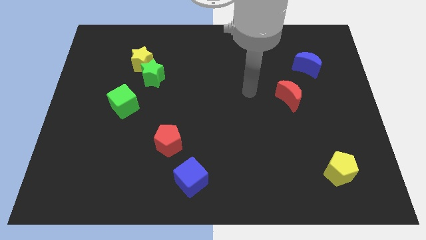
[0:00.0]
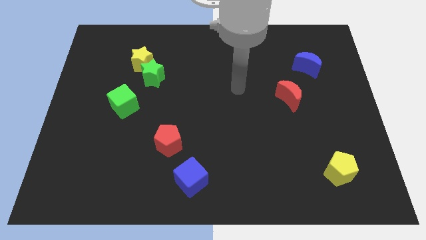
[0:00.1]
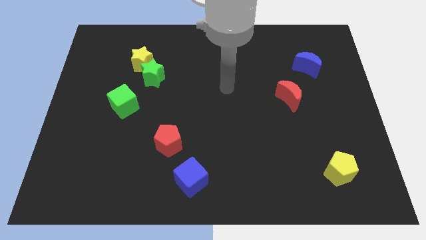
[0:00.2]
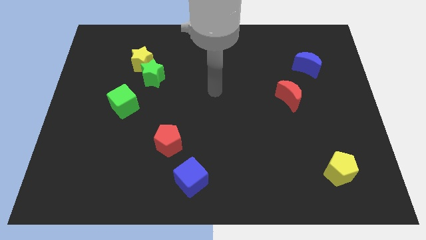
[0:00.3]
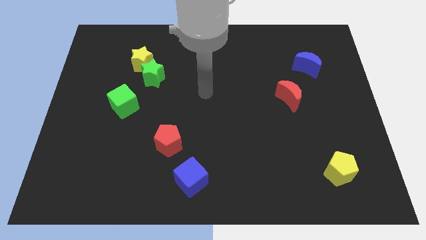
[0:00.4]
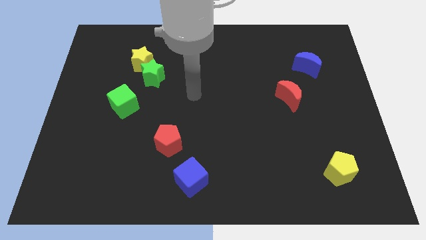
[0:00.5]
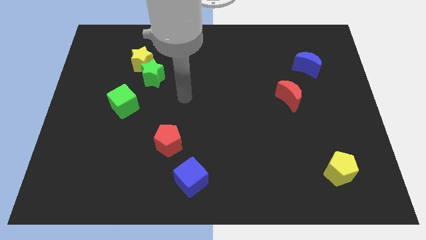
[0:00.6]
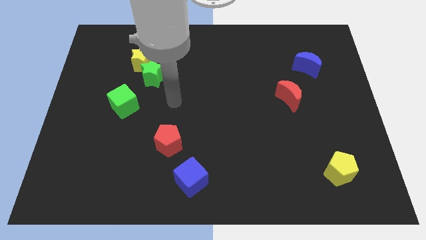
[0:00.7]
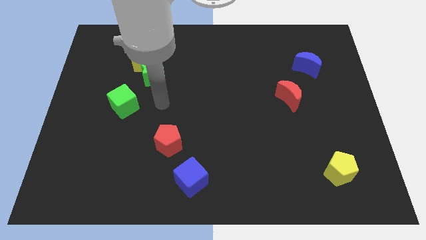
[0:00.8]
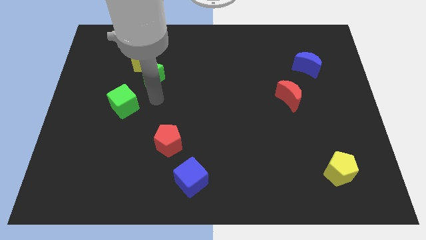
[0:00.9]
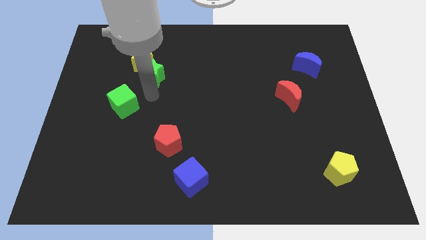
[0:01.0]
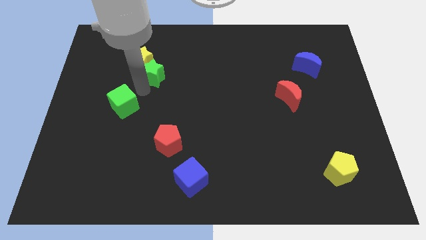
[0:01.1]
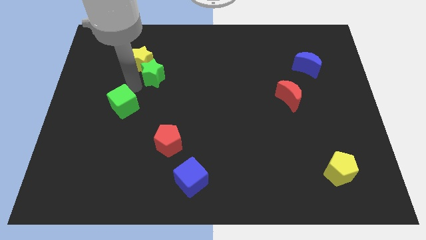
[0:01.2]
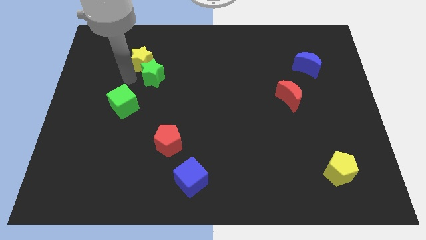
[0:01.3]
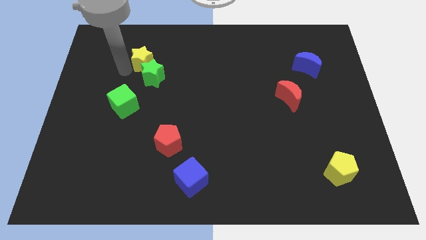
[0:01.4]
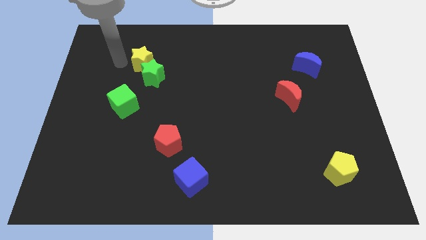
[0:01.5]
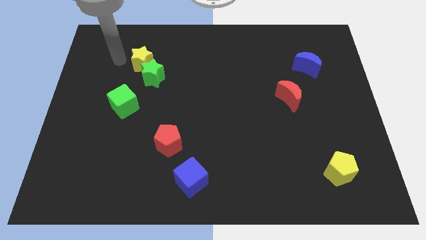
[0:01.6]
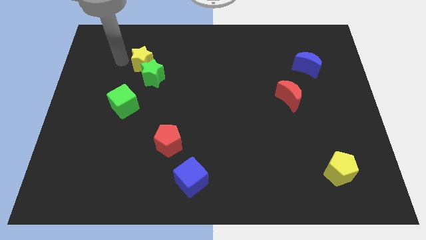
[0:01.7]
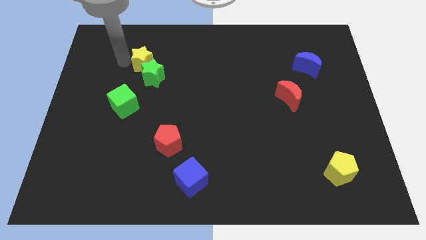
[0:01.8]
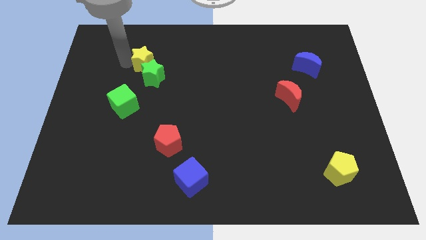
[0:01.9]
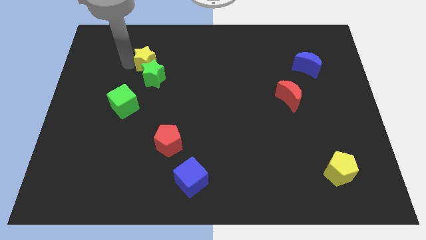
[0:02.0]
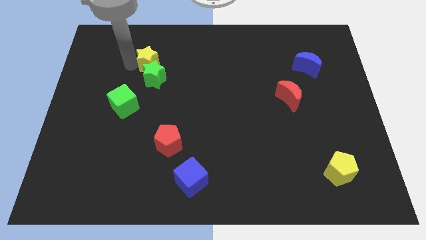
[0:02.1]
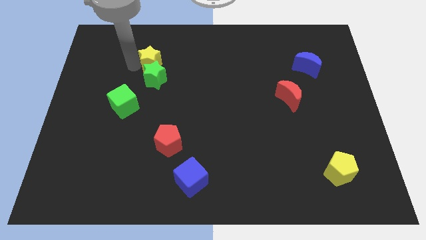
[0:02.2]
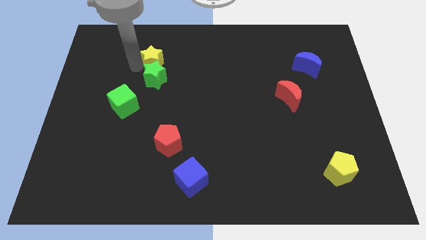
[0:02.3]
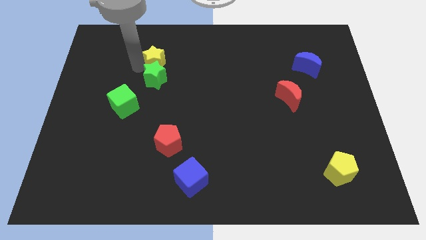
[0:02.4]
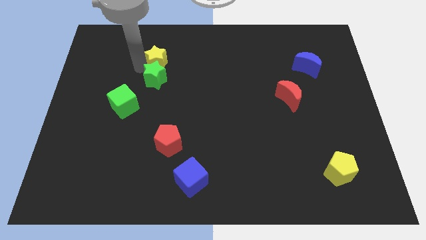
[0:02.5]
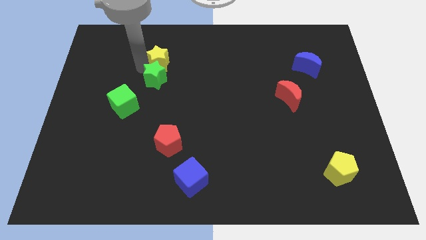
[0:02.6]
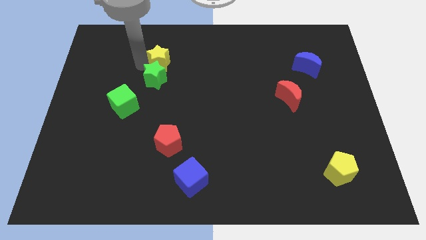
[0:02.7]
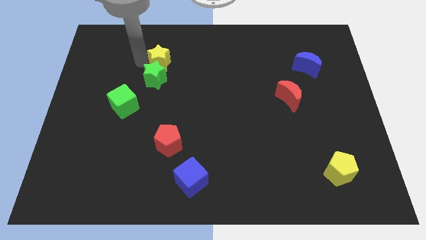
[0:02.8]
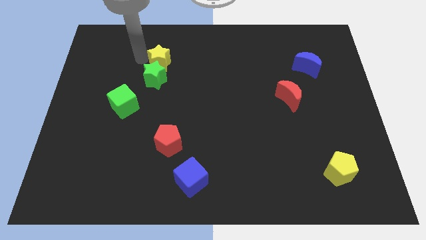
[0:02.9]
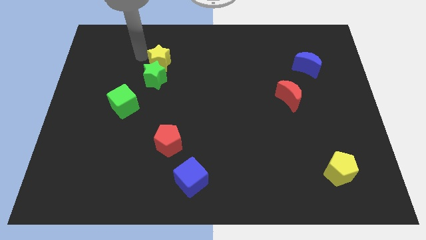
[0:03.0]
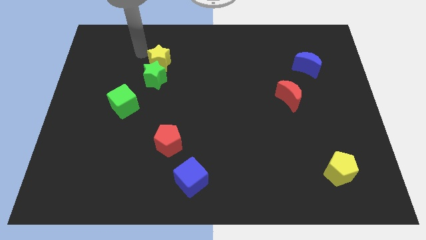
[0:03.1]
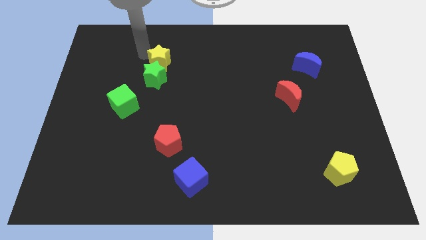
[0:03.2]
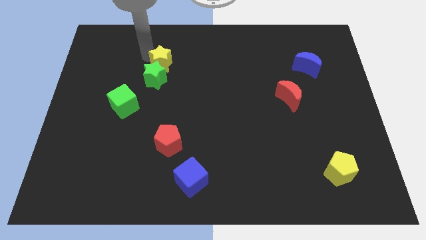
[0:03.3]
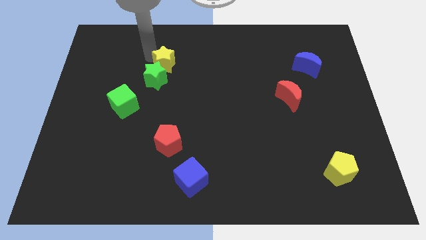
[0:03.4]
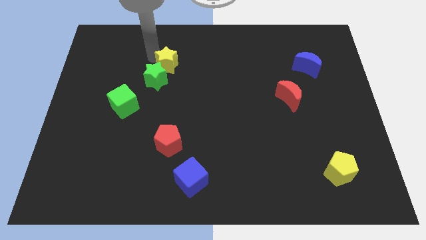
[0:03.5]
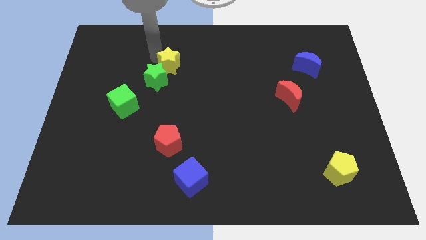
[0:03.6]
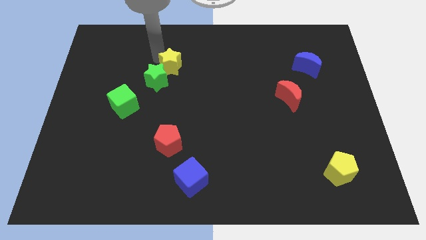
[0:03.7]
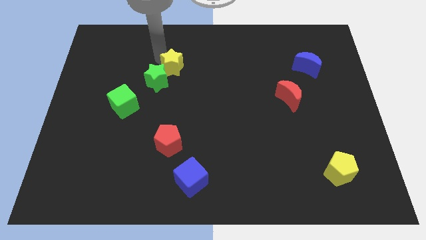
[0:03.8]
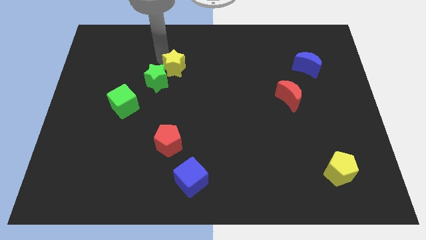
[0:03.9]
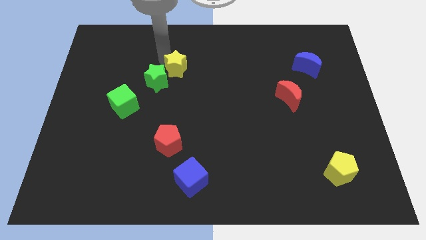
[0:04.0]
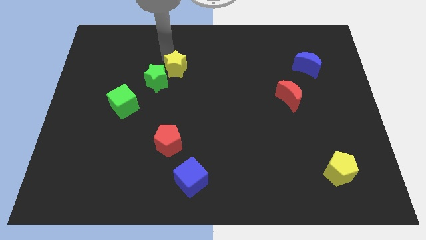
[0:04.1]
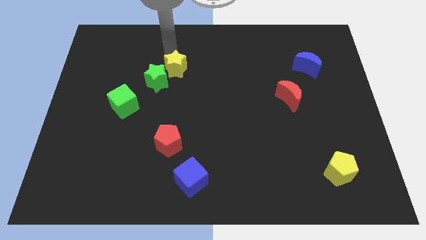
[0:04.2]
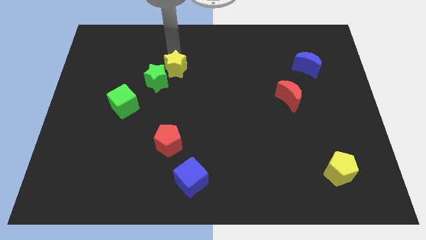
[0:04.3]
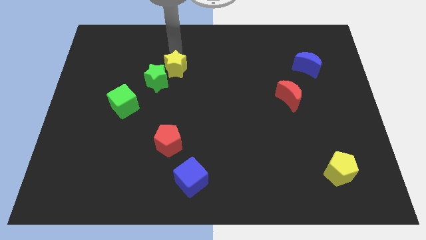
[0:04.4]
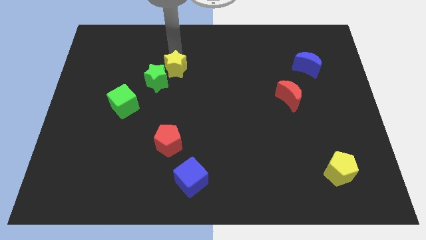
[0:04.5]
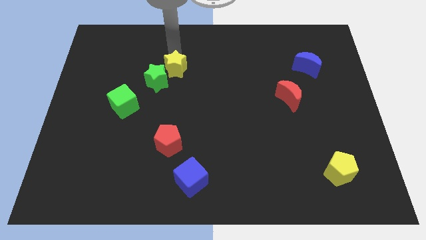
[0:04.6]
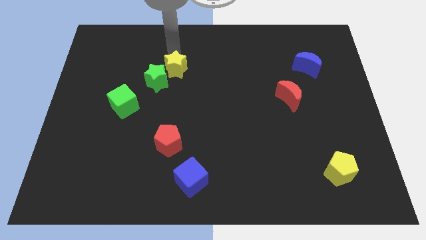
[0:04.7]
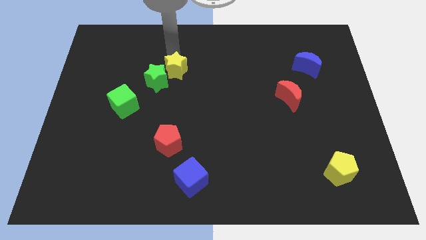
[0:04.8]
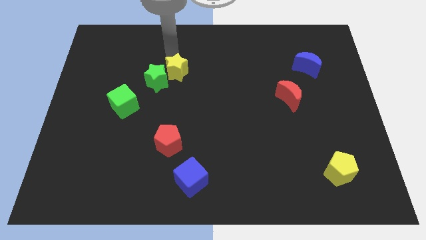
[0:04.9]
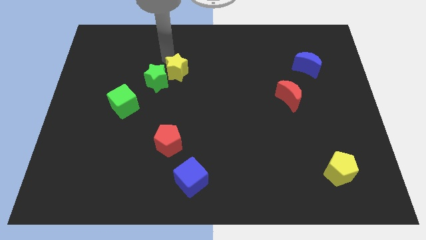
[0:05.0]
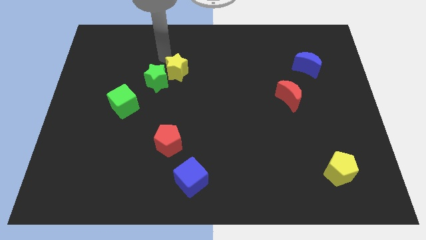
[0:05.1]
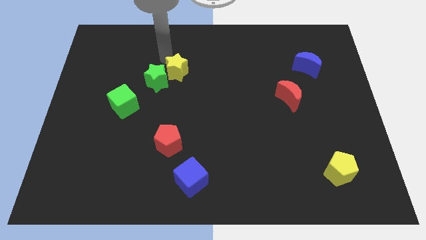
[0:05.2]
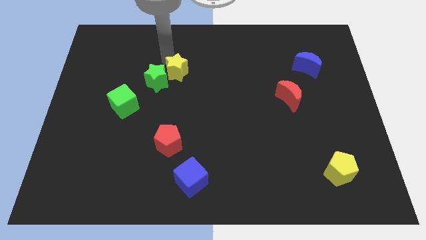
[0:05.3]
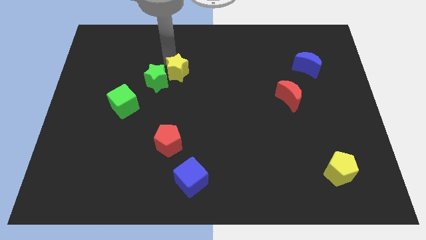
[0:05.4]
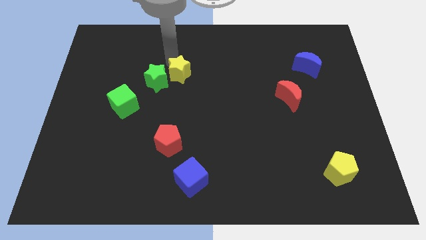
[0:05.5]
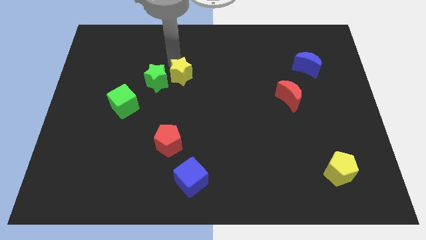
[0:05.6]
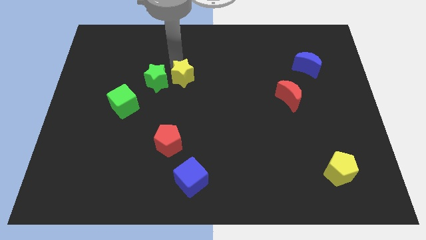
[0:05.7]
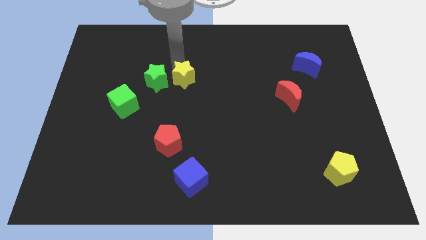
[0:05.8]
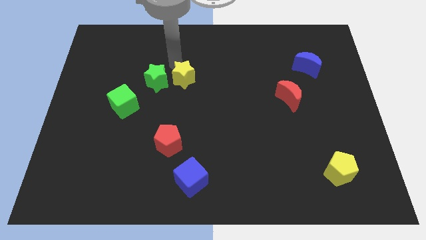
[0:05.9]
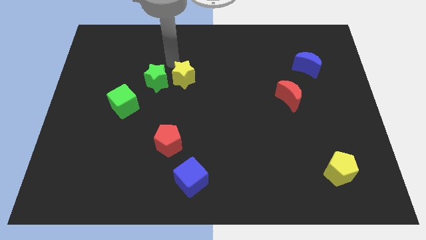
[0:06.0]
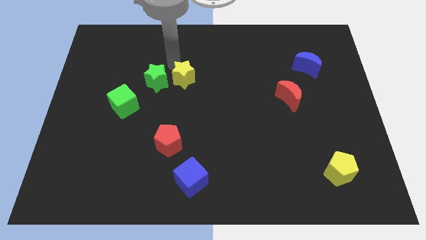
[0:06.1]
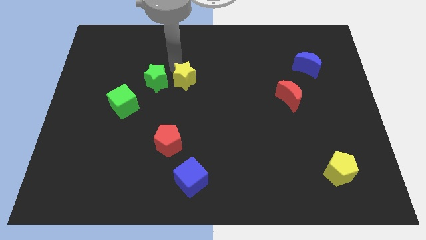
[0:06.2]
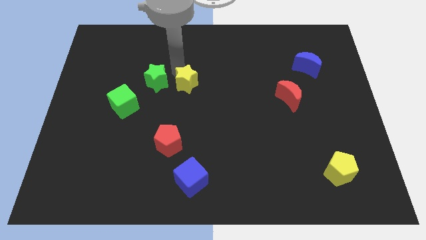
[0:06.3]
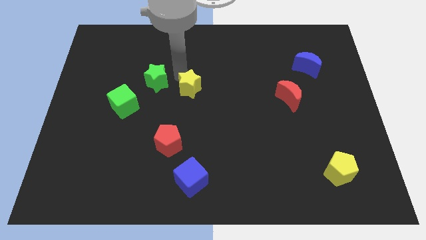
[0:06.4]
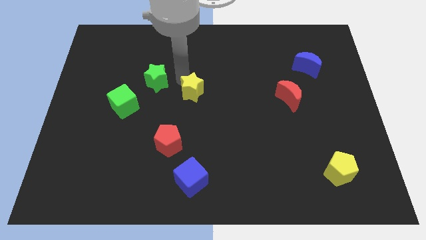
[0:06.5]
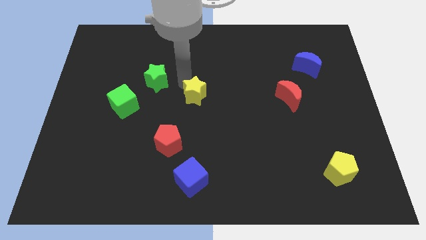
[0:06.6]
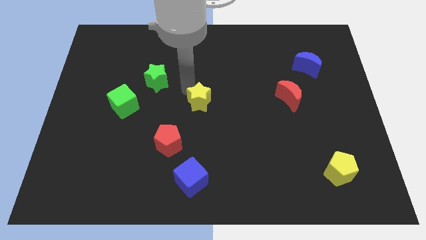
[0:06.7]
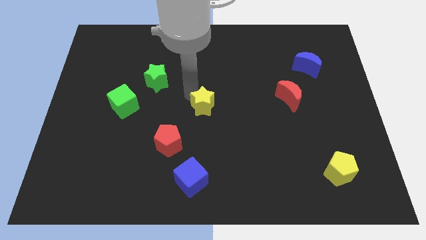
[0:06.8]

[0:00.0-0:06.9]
slide the yellow star downwards and right diagonally

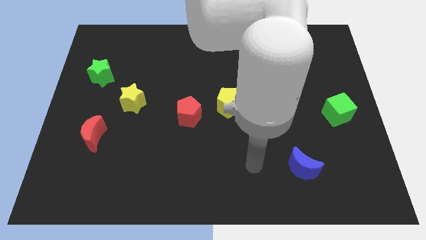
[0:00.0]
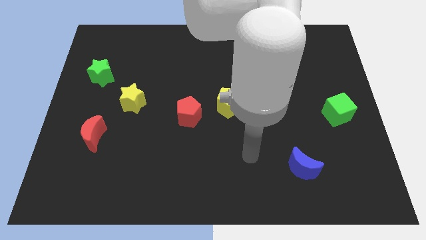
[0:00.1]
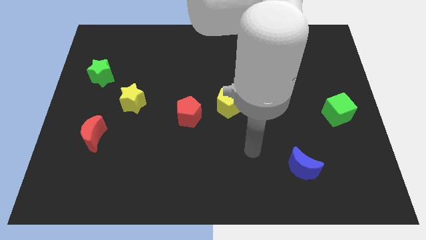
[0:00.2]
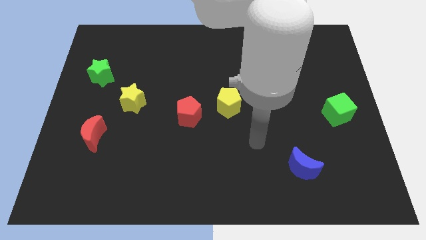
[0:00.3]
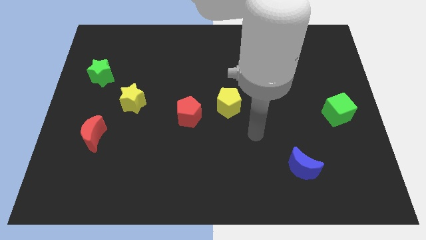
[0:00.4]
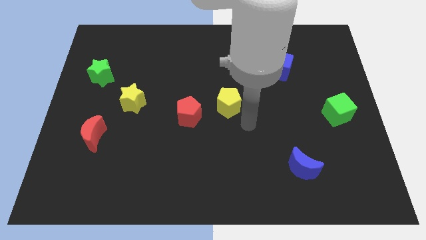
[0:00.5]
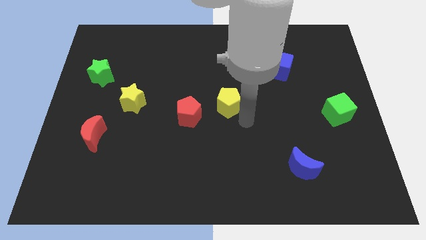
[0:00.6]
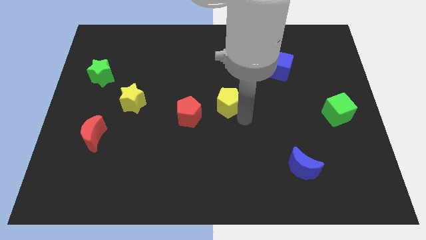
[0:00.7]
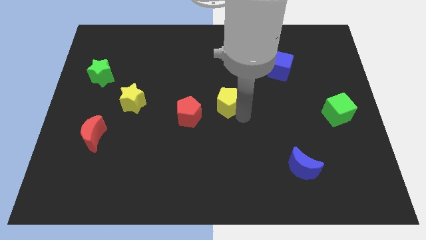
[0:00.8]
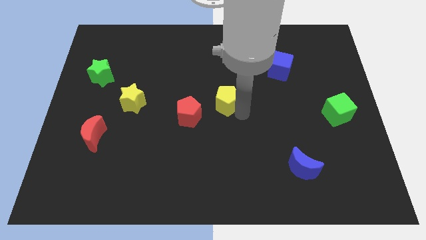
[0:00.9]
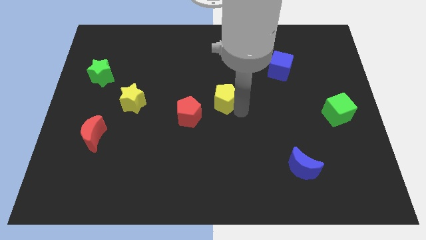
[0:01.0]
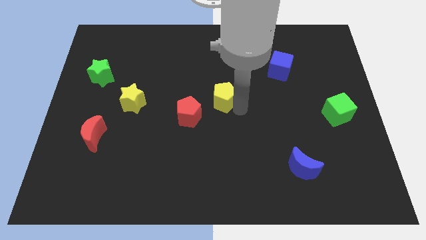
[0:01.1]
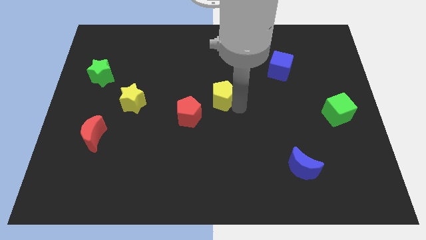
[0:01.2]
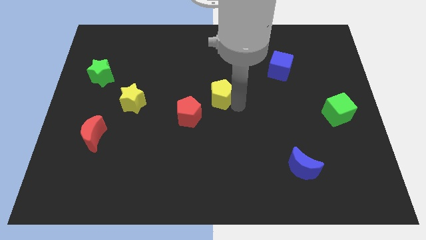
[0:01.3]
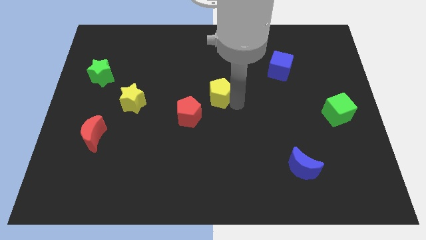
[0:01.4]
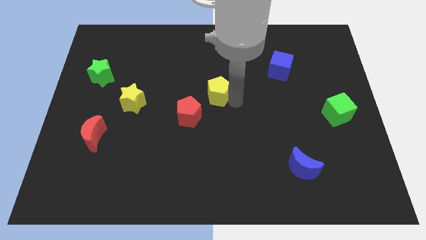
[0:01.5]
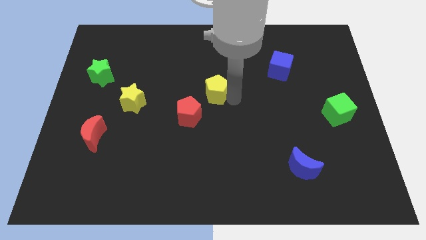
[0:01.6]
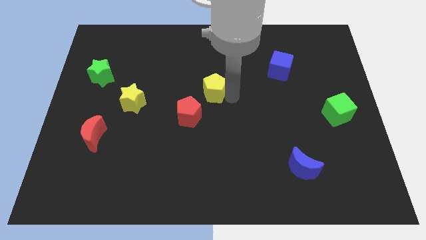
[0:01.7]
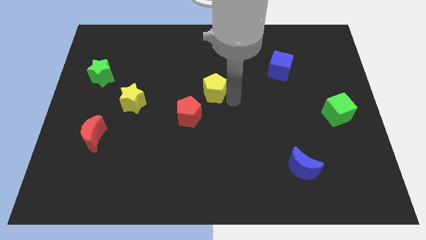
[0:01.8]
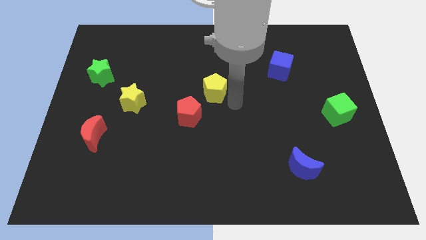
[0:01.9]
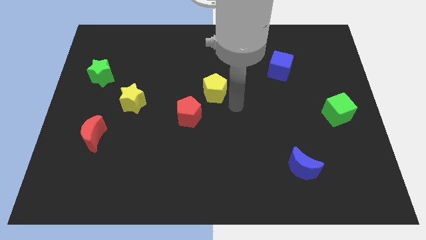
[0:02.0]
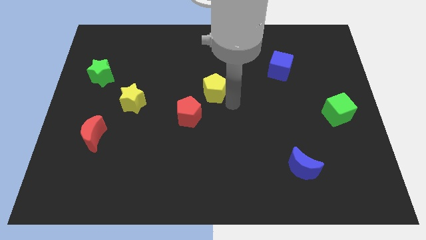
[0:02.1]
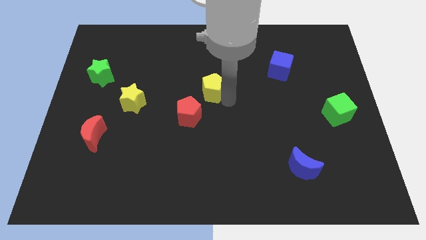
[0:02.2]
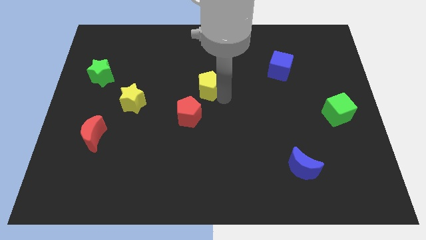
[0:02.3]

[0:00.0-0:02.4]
slightly slide the yellow pentagon up and then left
